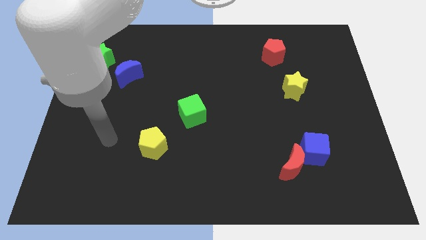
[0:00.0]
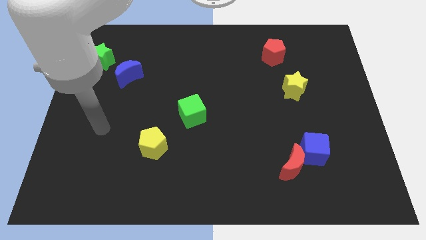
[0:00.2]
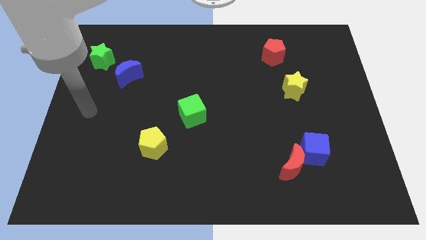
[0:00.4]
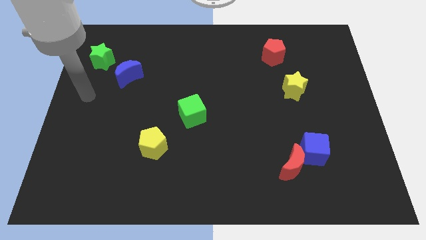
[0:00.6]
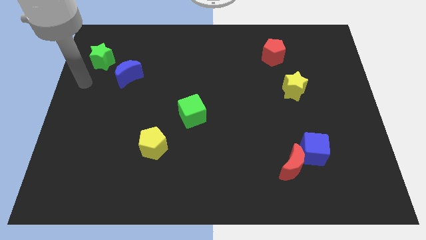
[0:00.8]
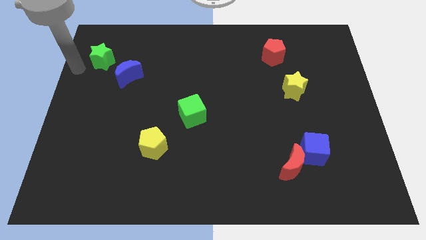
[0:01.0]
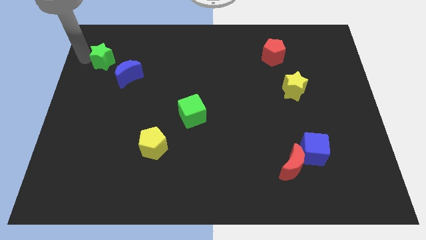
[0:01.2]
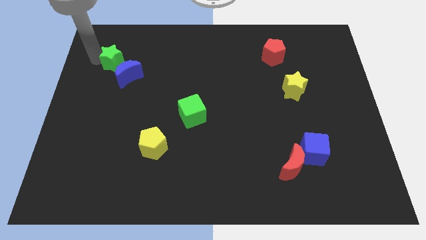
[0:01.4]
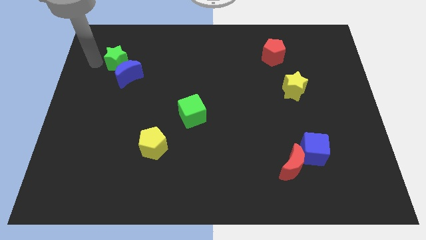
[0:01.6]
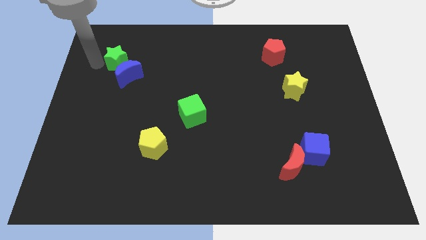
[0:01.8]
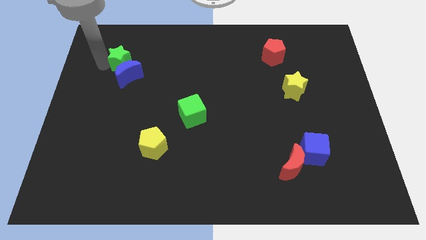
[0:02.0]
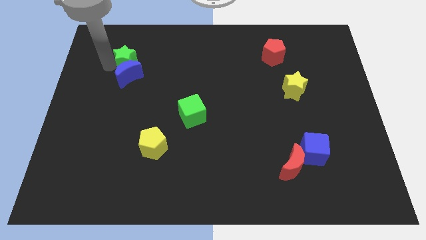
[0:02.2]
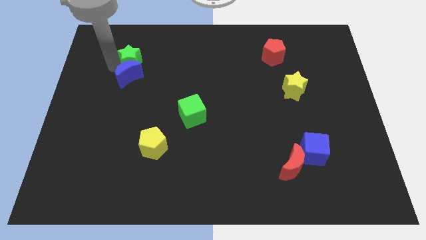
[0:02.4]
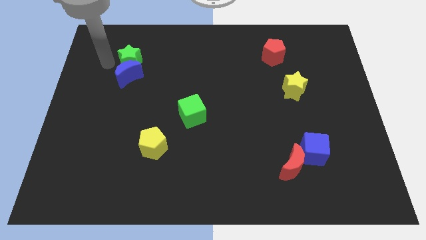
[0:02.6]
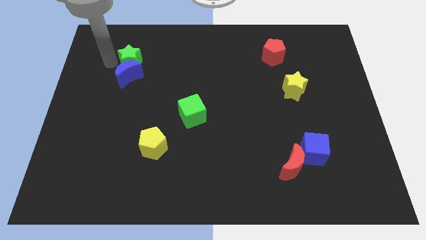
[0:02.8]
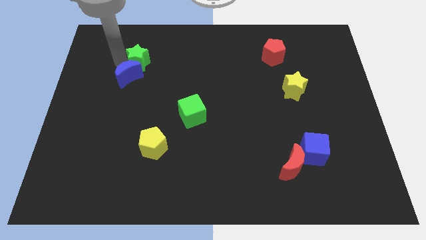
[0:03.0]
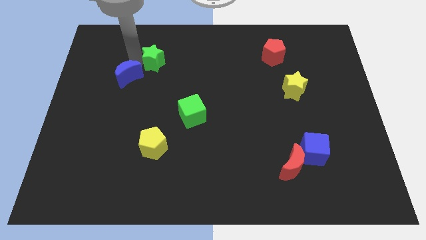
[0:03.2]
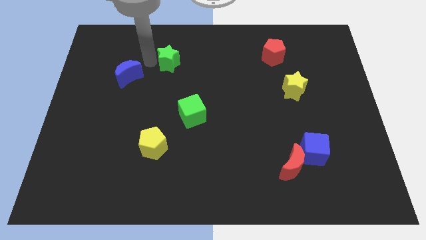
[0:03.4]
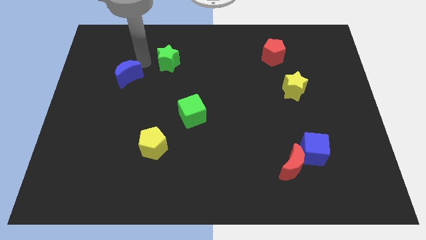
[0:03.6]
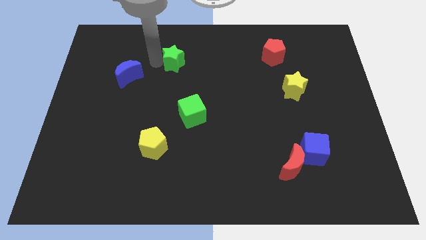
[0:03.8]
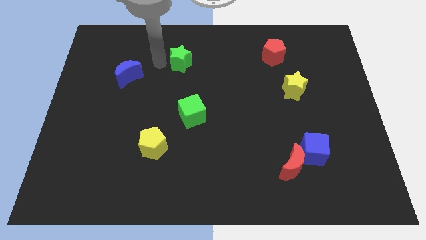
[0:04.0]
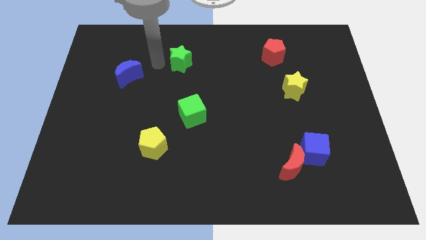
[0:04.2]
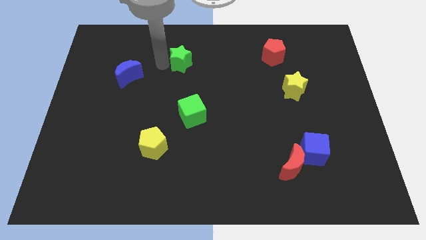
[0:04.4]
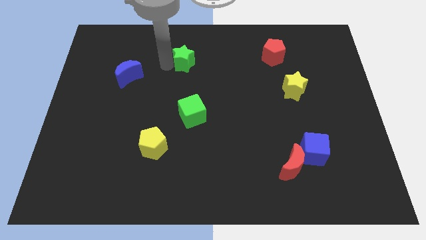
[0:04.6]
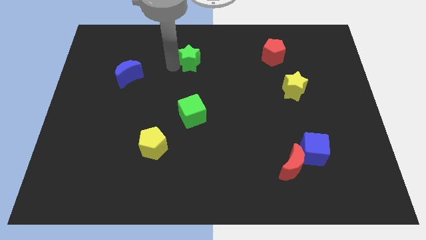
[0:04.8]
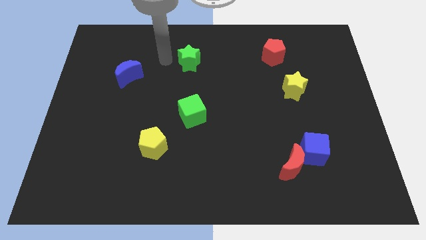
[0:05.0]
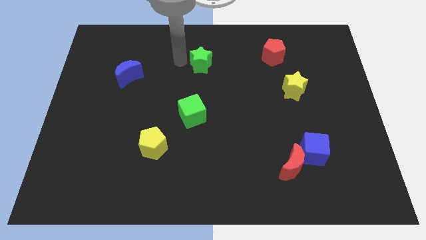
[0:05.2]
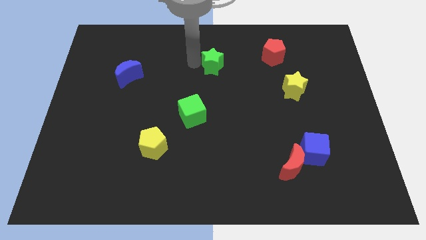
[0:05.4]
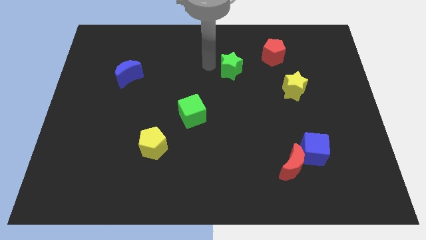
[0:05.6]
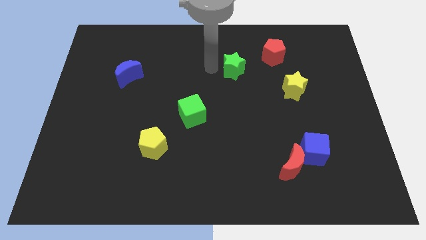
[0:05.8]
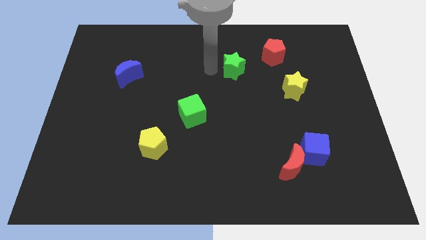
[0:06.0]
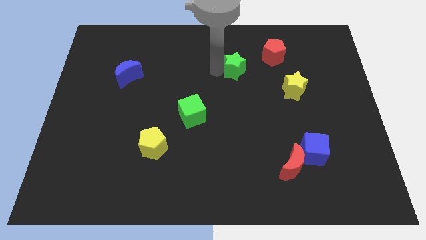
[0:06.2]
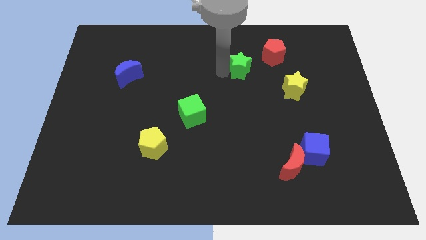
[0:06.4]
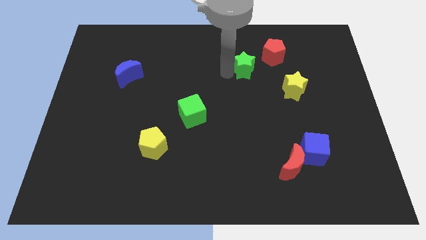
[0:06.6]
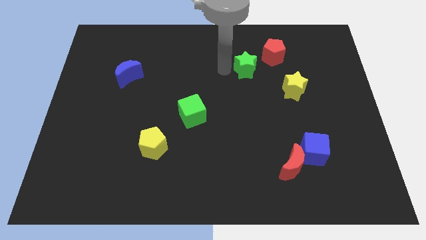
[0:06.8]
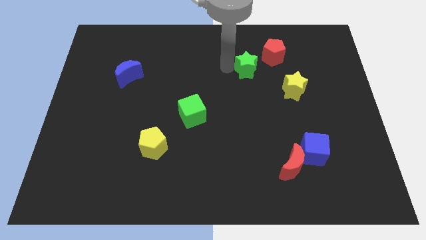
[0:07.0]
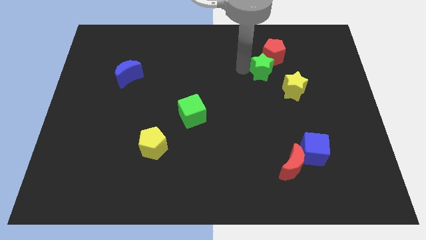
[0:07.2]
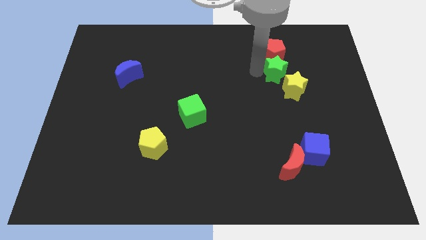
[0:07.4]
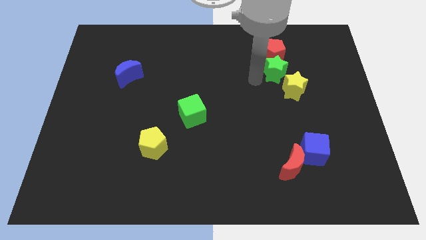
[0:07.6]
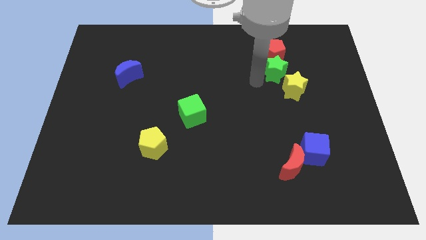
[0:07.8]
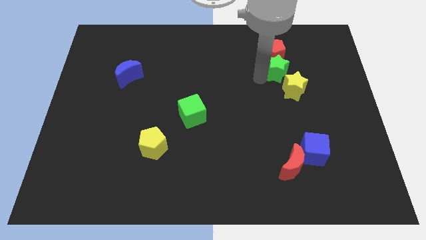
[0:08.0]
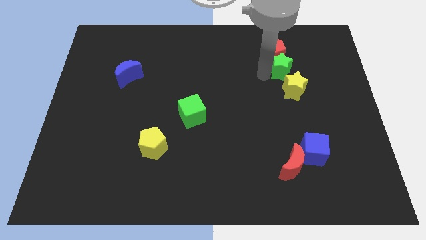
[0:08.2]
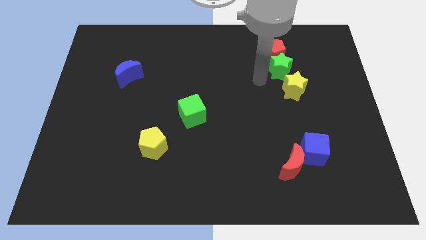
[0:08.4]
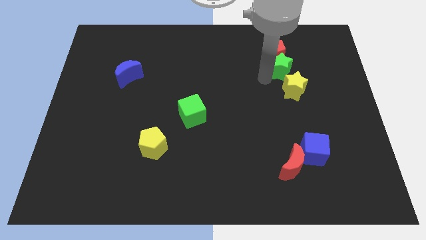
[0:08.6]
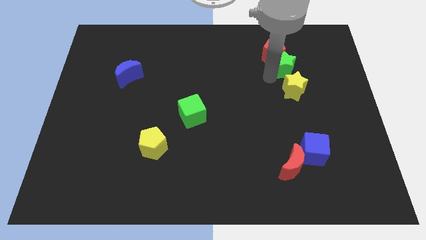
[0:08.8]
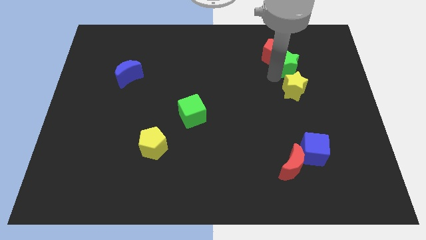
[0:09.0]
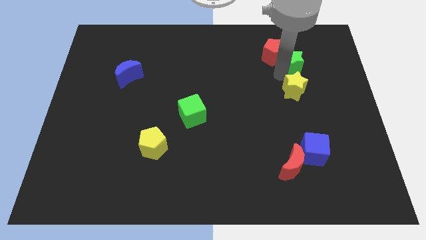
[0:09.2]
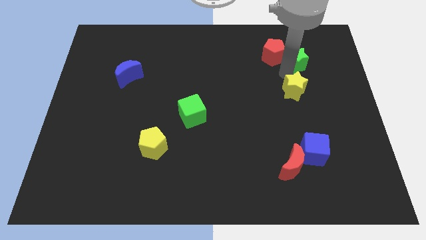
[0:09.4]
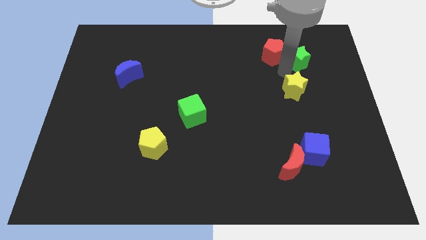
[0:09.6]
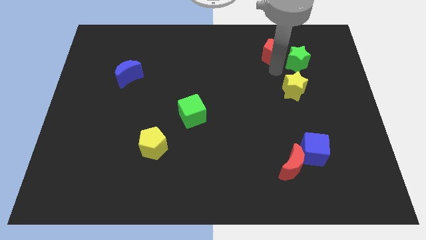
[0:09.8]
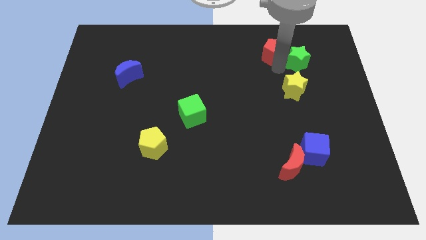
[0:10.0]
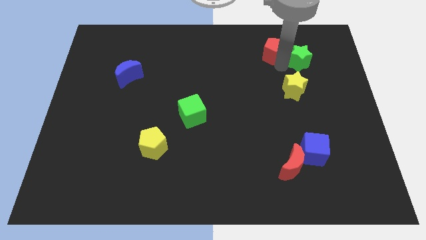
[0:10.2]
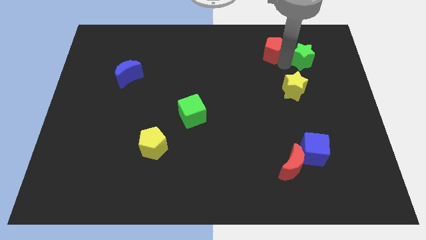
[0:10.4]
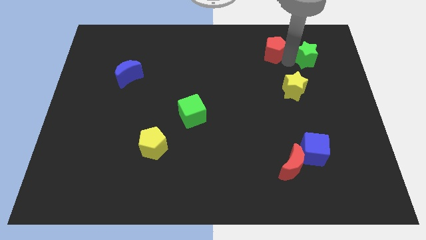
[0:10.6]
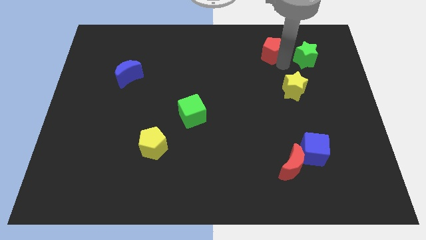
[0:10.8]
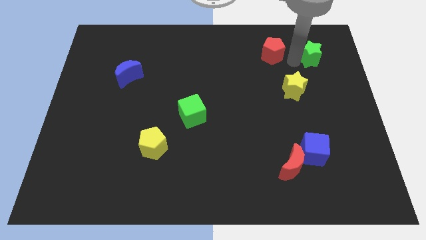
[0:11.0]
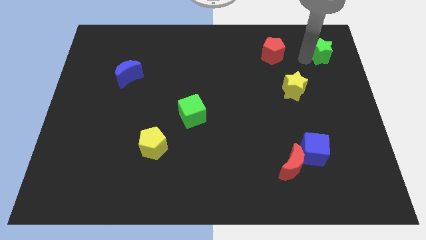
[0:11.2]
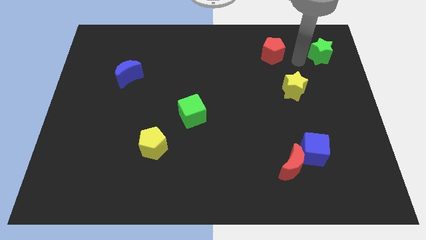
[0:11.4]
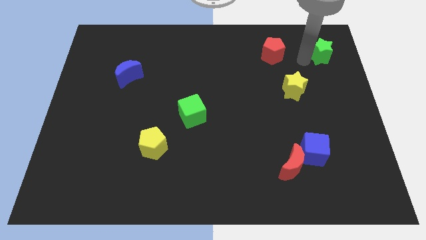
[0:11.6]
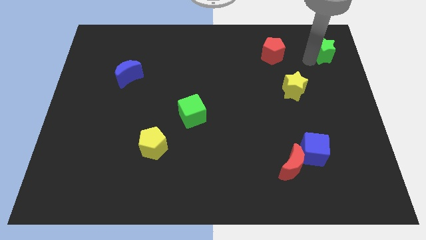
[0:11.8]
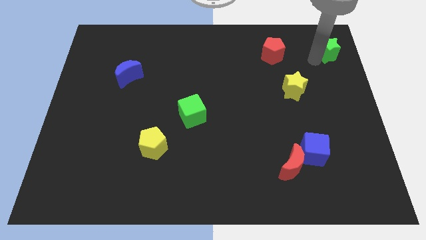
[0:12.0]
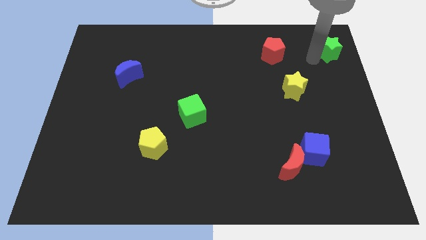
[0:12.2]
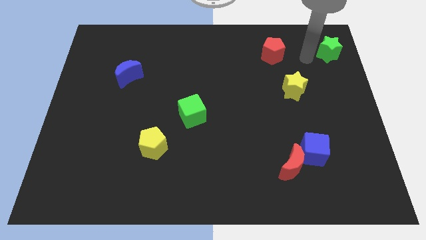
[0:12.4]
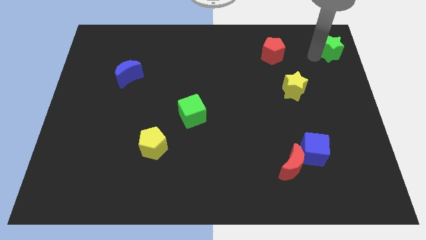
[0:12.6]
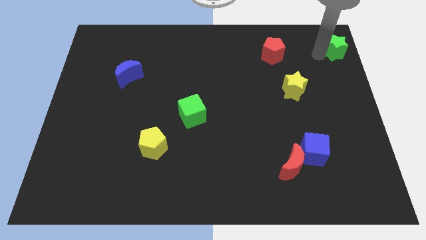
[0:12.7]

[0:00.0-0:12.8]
slide the green star to the top right of the board

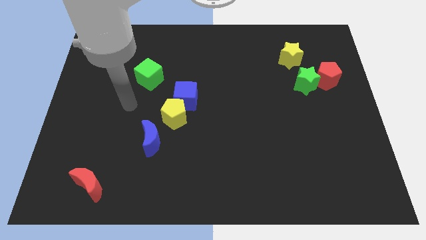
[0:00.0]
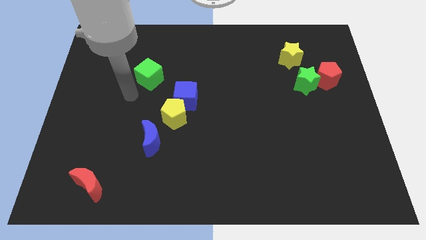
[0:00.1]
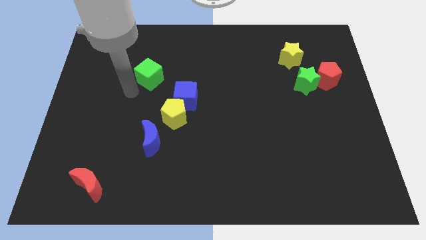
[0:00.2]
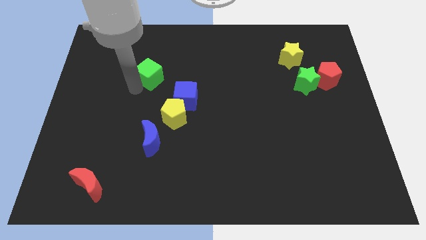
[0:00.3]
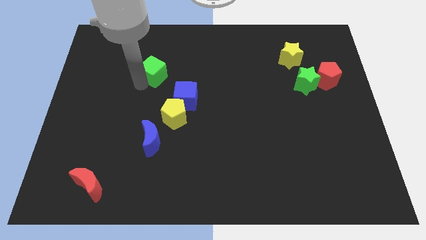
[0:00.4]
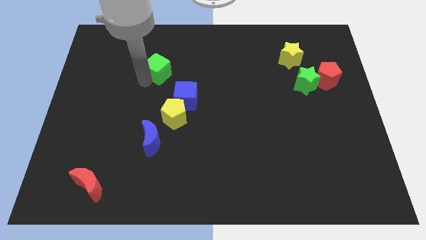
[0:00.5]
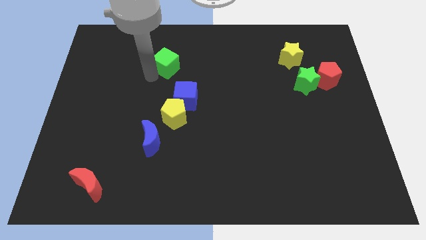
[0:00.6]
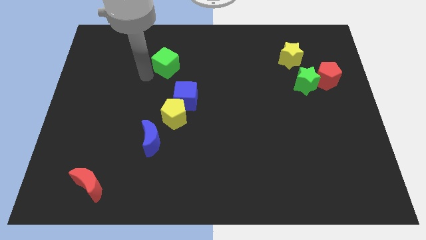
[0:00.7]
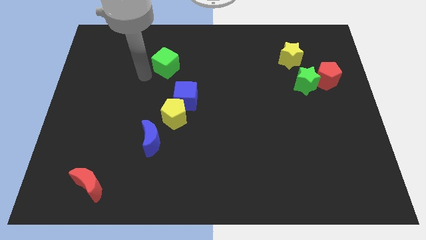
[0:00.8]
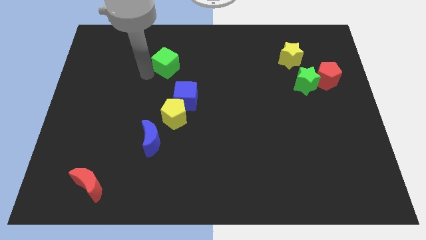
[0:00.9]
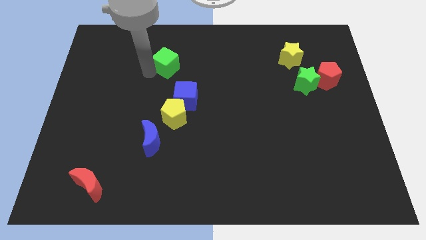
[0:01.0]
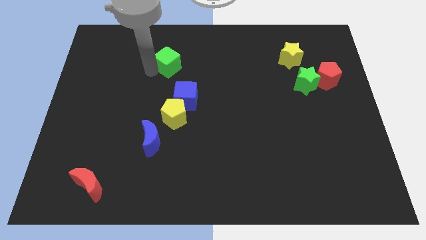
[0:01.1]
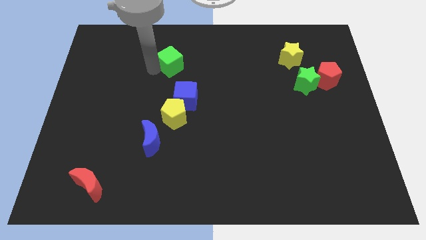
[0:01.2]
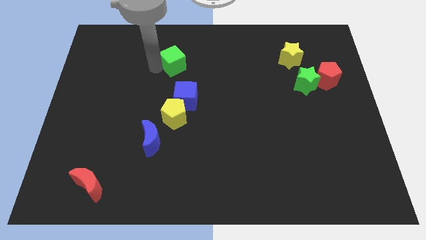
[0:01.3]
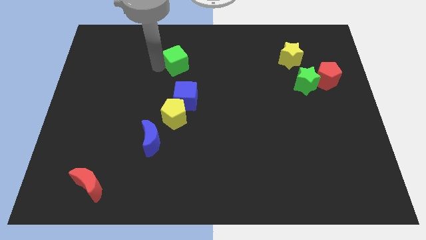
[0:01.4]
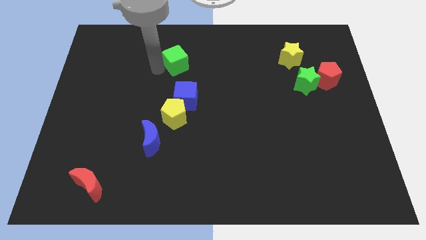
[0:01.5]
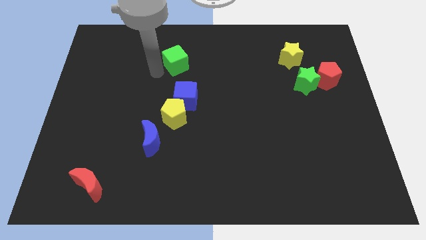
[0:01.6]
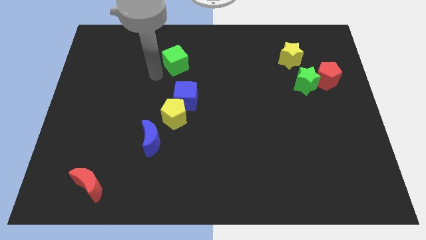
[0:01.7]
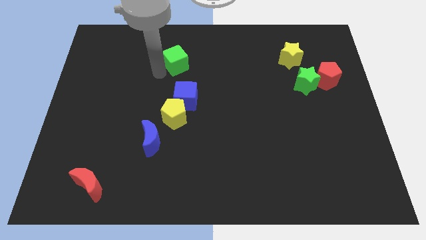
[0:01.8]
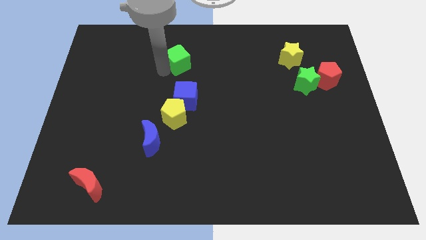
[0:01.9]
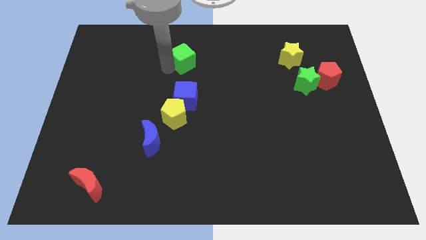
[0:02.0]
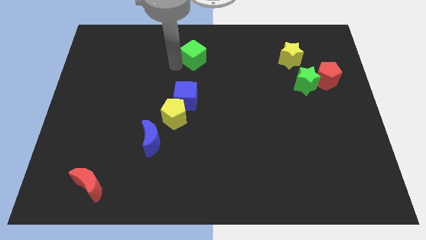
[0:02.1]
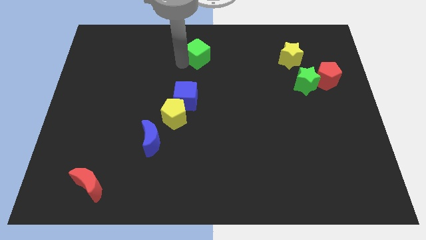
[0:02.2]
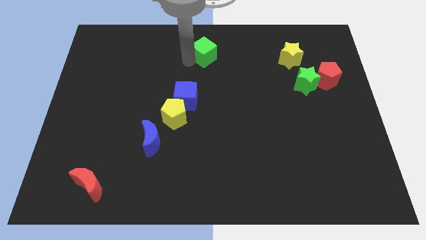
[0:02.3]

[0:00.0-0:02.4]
put the green cube to the top side
